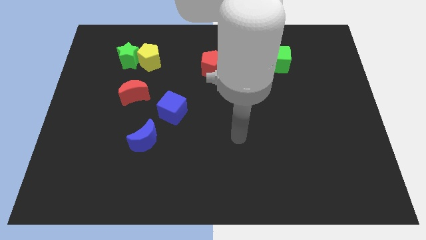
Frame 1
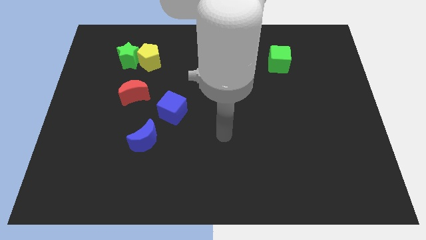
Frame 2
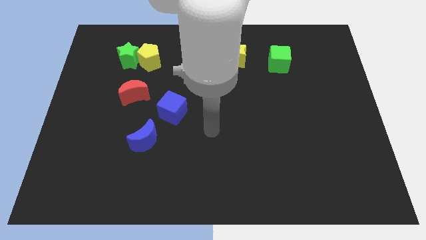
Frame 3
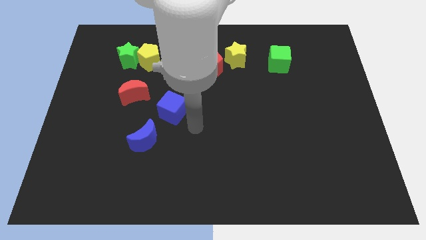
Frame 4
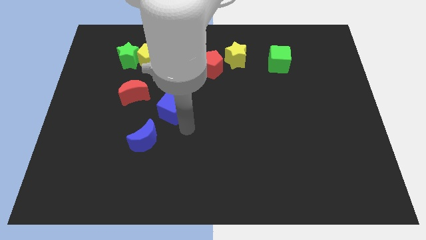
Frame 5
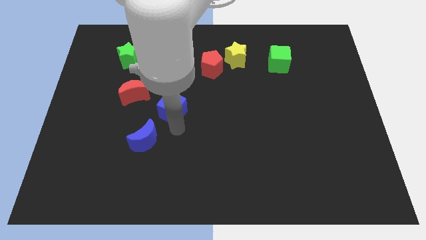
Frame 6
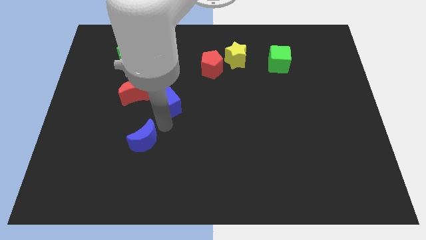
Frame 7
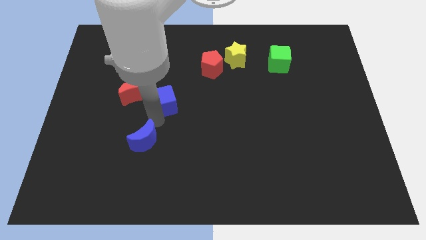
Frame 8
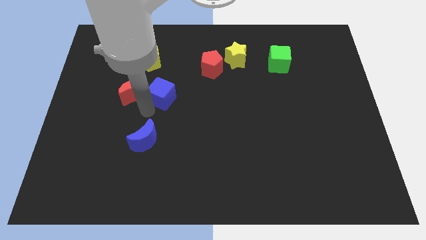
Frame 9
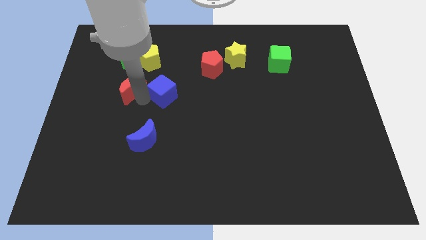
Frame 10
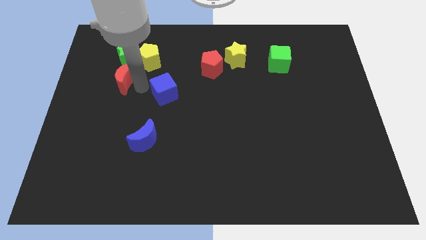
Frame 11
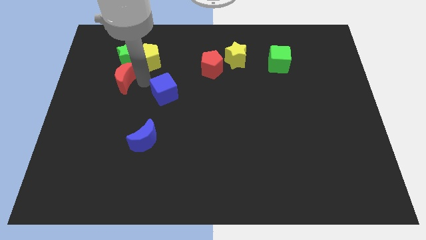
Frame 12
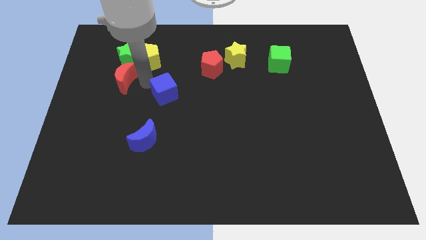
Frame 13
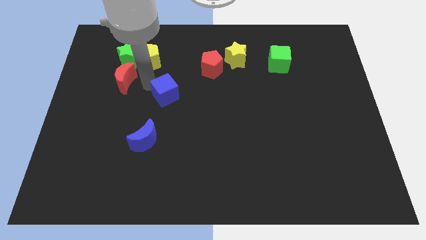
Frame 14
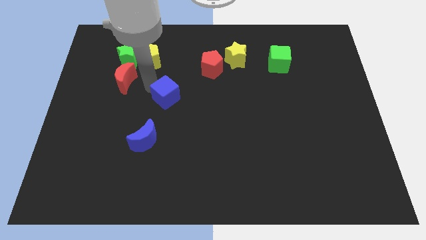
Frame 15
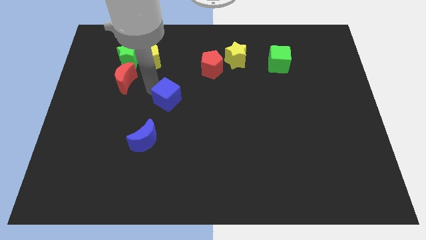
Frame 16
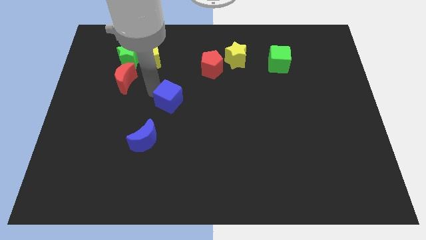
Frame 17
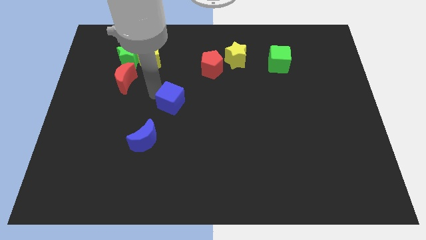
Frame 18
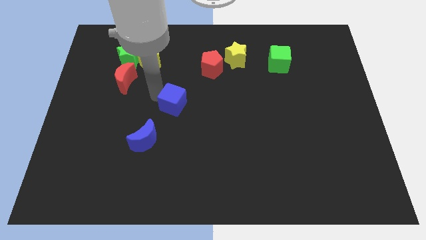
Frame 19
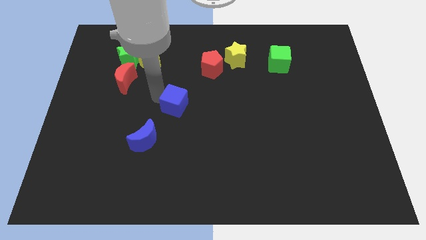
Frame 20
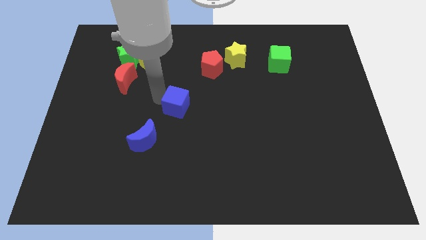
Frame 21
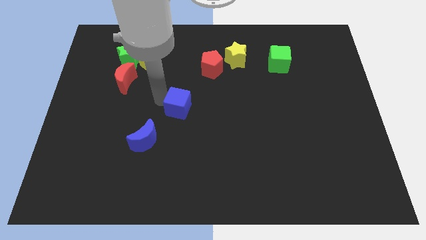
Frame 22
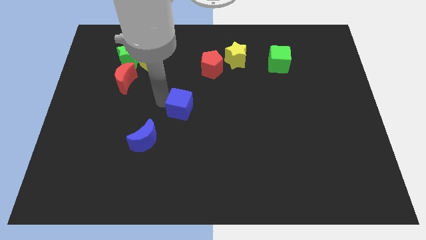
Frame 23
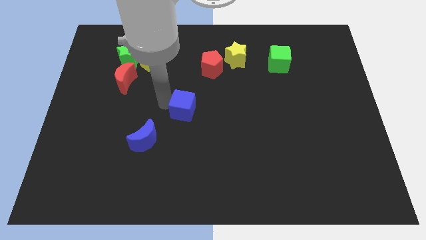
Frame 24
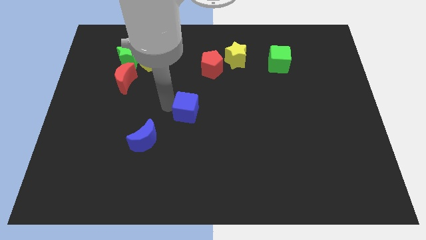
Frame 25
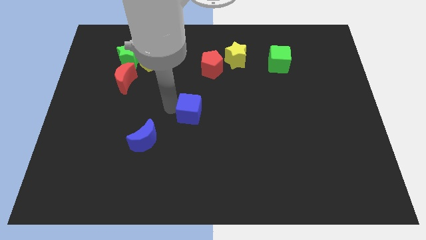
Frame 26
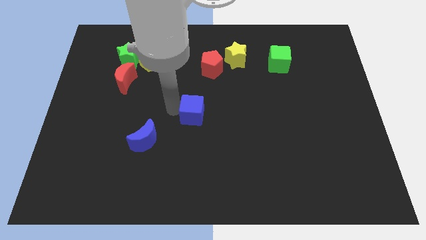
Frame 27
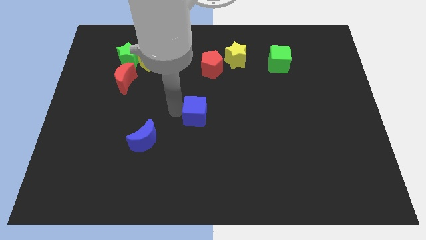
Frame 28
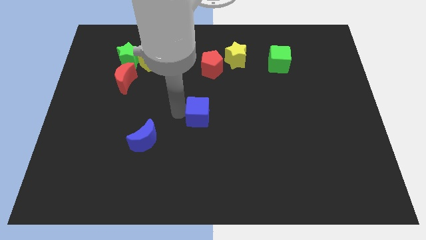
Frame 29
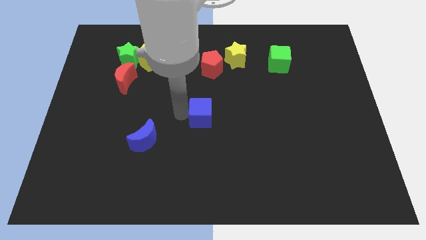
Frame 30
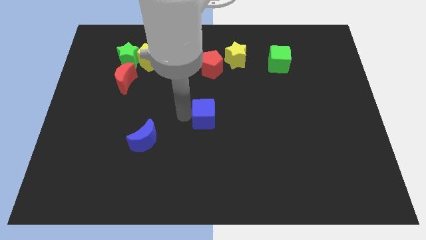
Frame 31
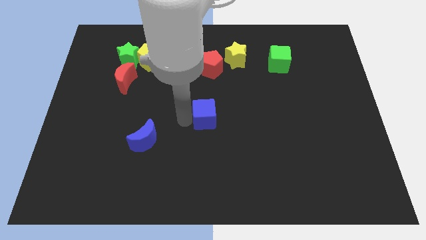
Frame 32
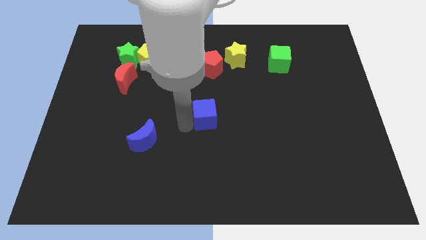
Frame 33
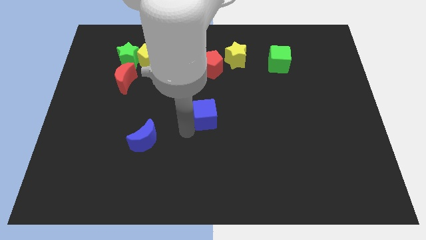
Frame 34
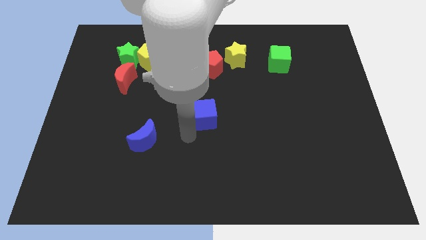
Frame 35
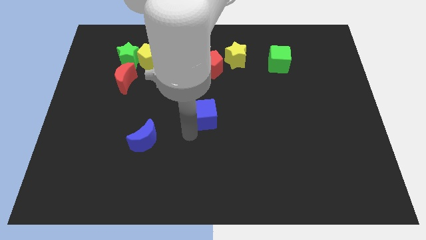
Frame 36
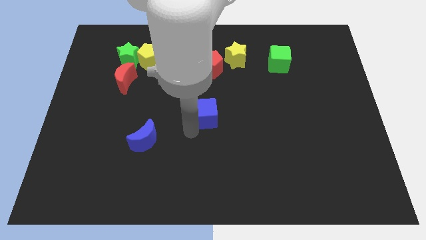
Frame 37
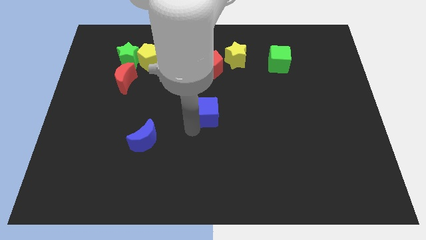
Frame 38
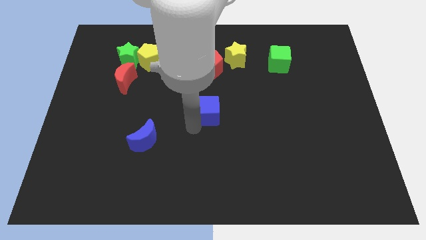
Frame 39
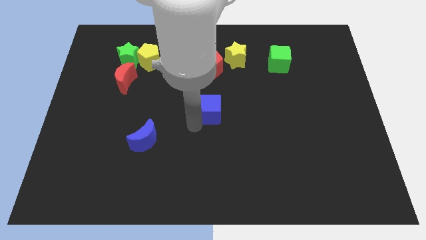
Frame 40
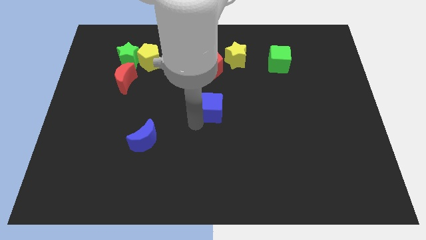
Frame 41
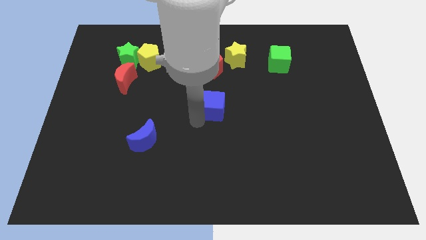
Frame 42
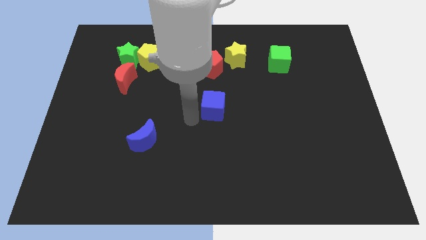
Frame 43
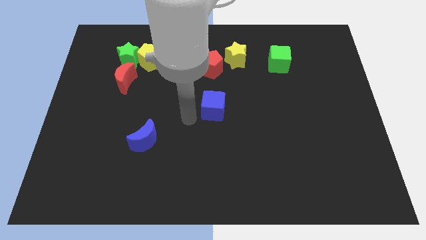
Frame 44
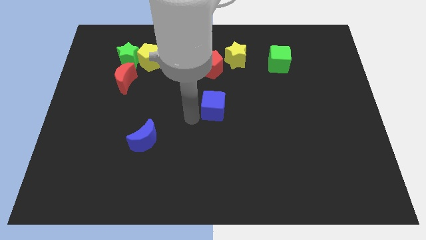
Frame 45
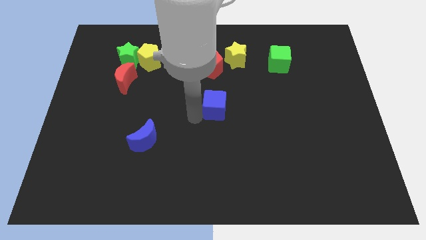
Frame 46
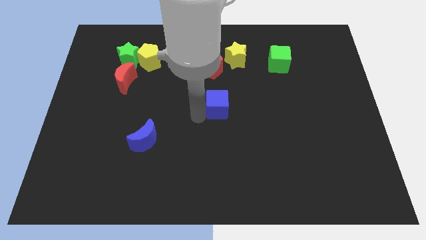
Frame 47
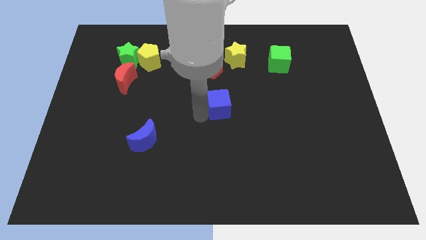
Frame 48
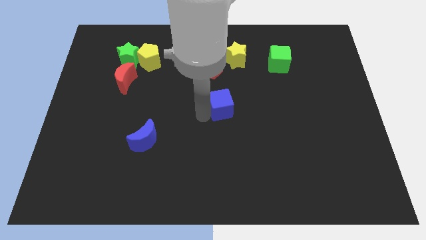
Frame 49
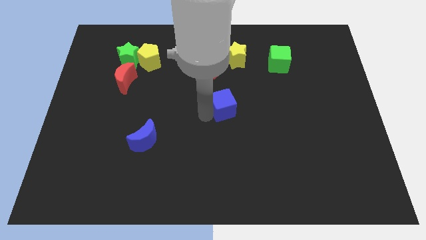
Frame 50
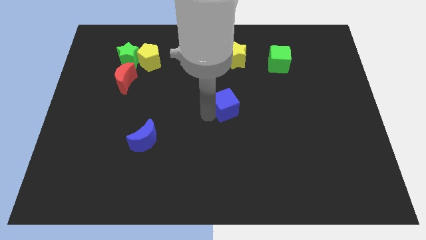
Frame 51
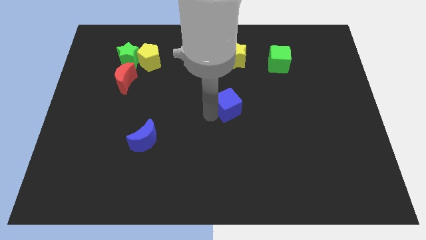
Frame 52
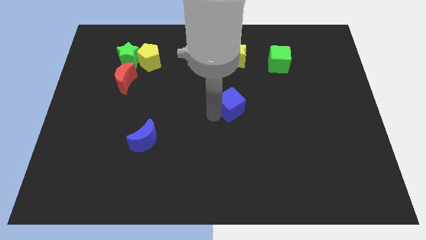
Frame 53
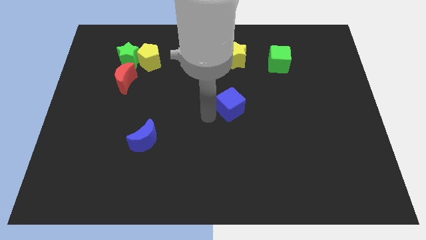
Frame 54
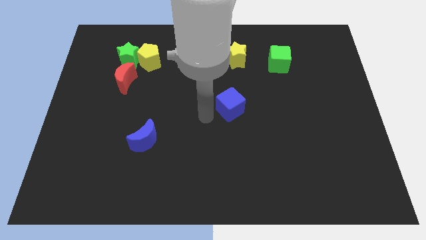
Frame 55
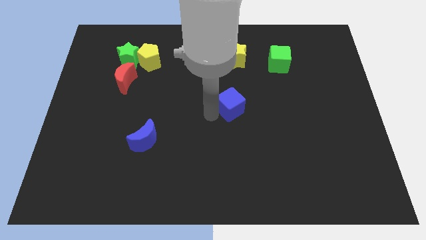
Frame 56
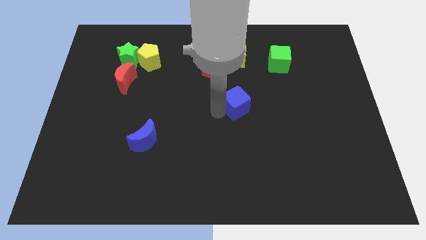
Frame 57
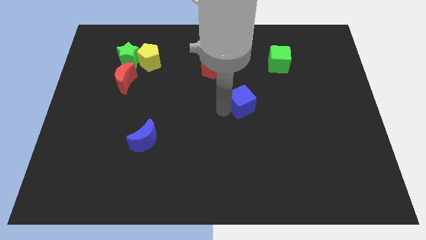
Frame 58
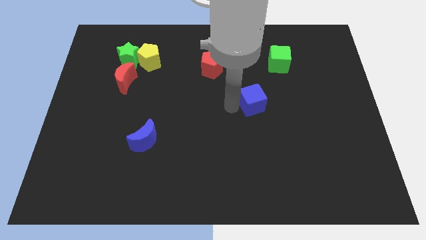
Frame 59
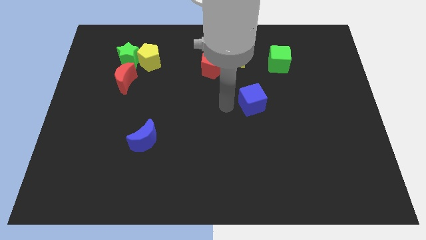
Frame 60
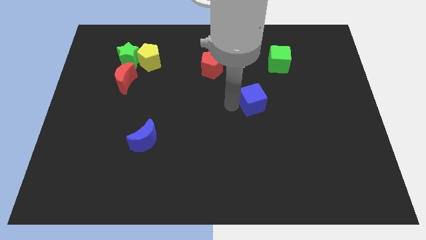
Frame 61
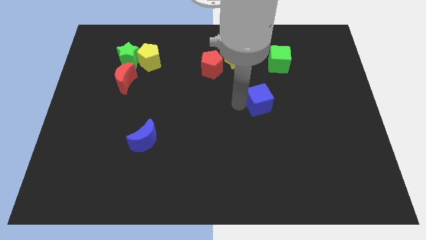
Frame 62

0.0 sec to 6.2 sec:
move the blue cube right

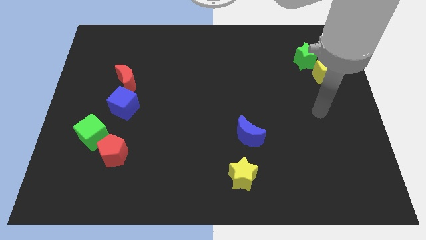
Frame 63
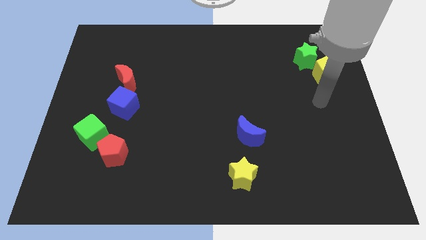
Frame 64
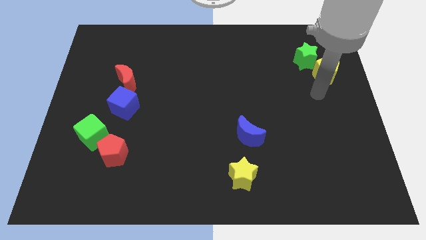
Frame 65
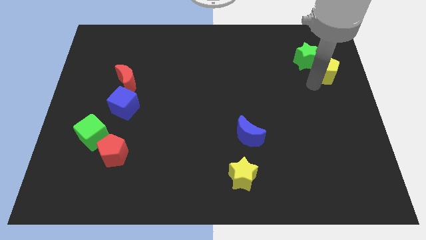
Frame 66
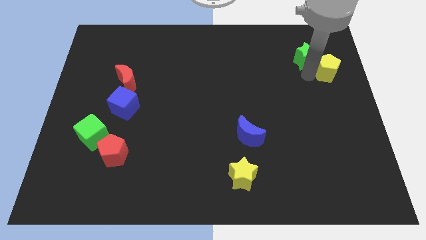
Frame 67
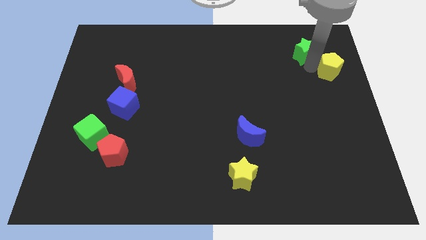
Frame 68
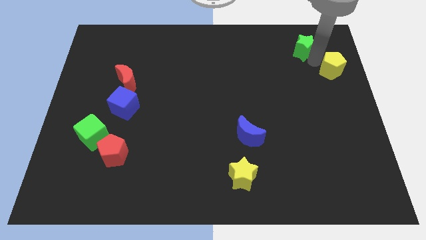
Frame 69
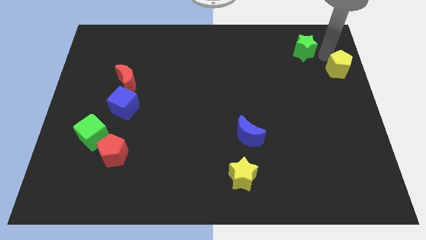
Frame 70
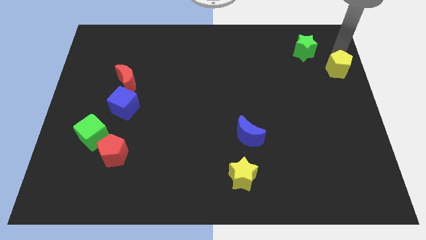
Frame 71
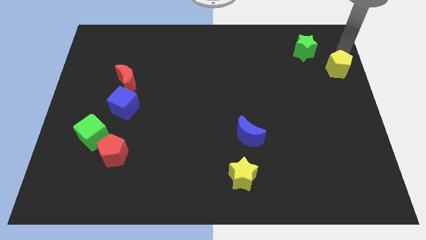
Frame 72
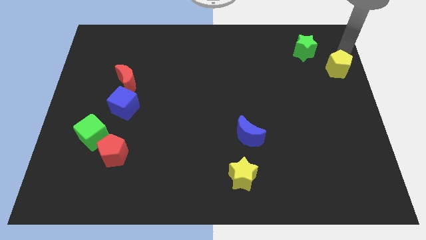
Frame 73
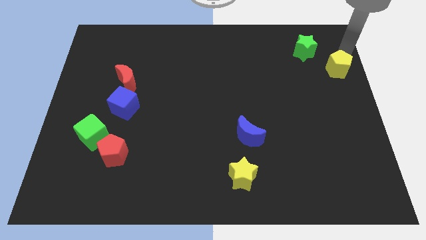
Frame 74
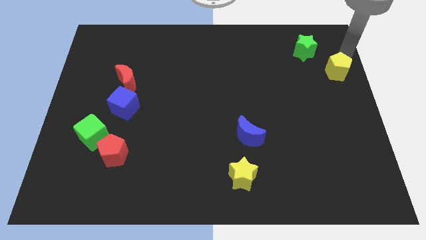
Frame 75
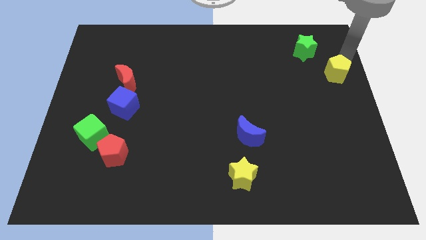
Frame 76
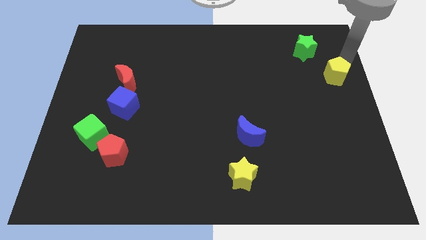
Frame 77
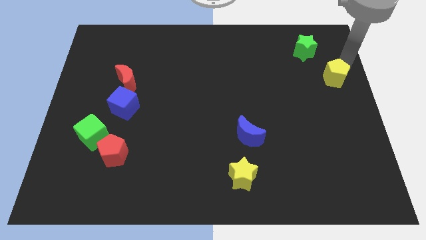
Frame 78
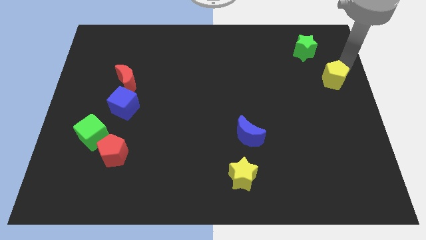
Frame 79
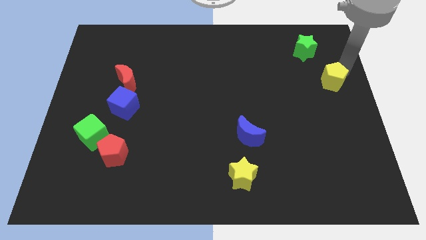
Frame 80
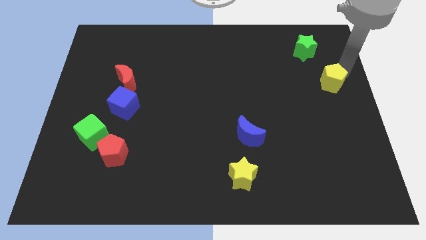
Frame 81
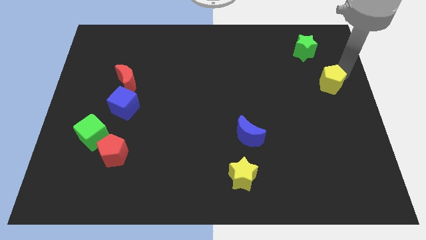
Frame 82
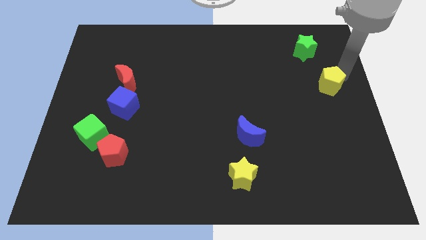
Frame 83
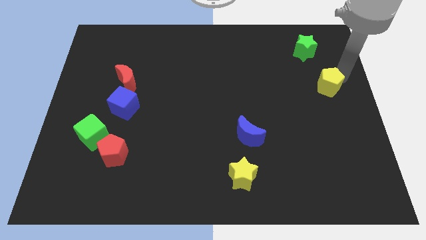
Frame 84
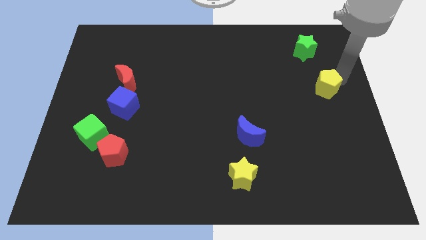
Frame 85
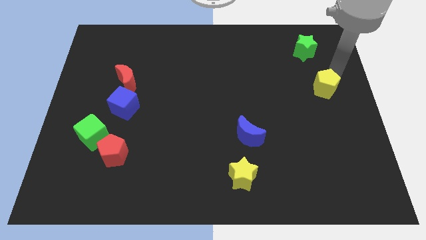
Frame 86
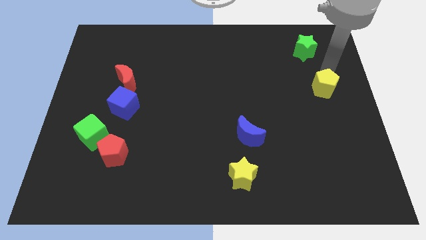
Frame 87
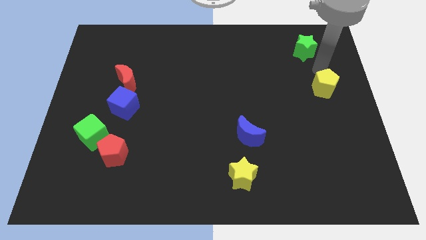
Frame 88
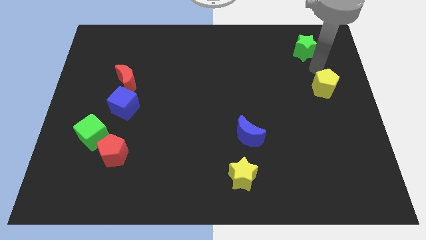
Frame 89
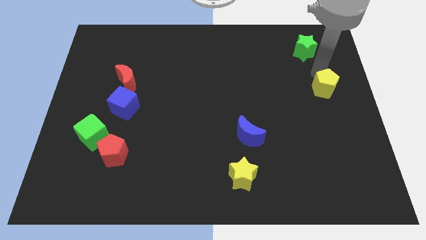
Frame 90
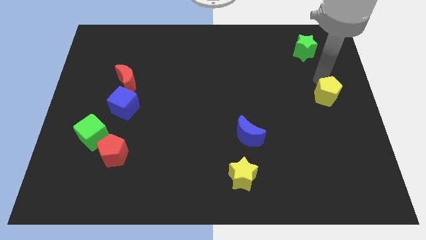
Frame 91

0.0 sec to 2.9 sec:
push the yellow pentagon down slightly
